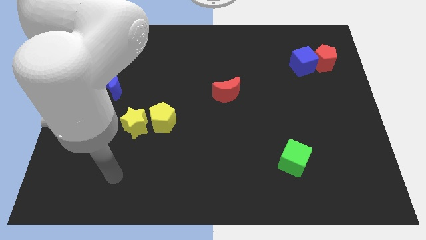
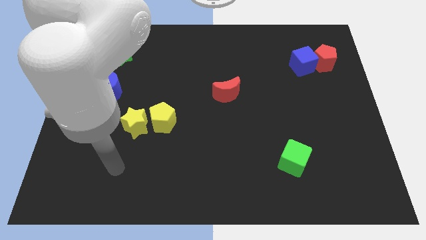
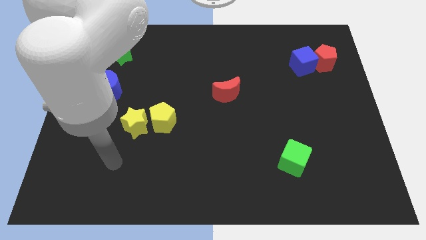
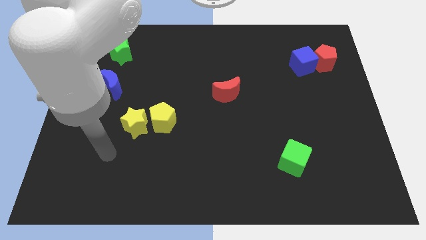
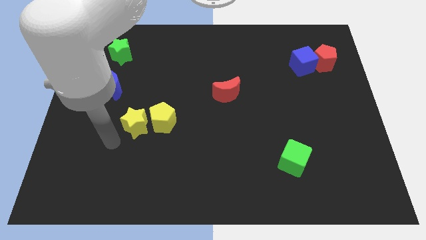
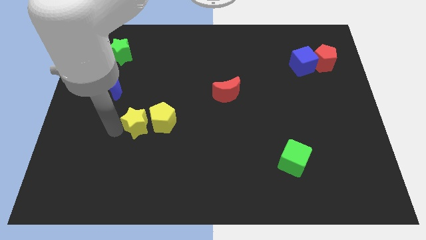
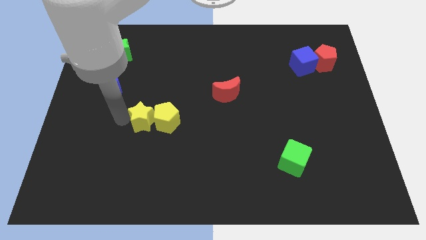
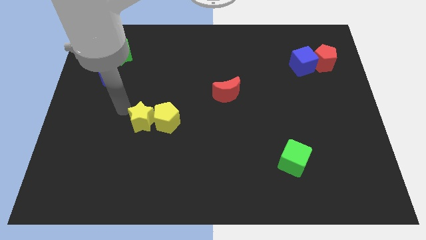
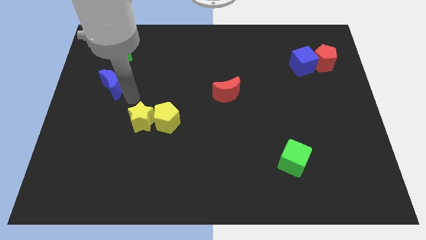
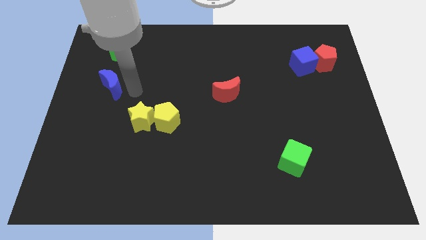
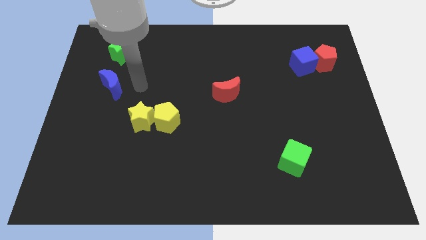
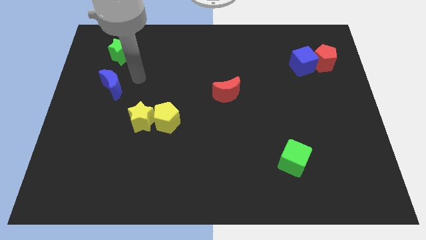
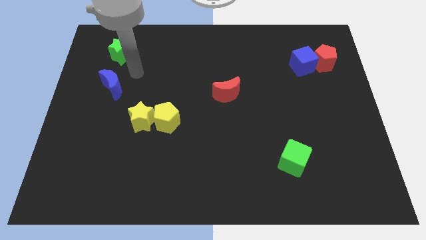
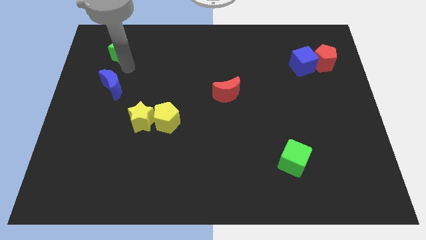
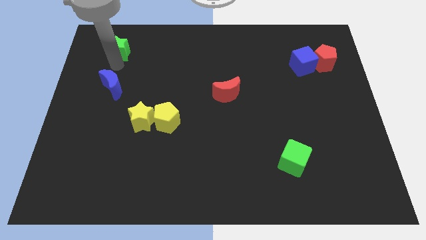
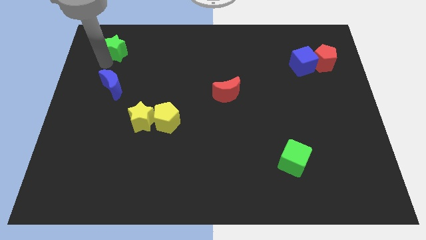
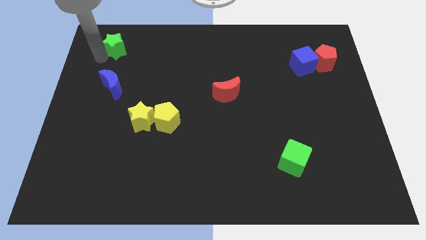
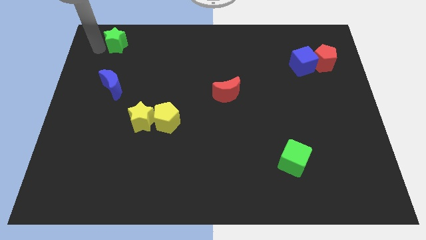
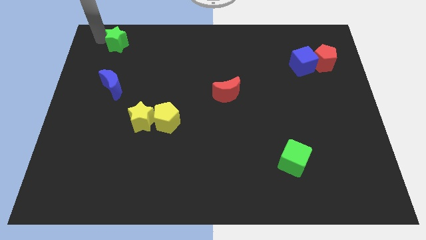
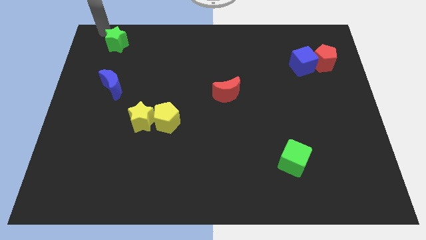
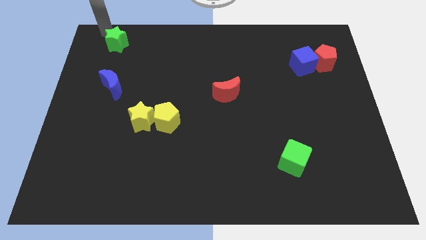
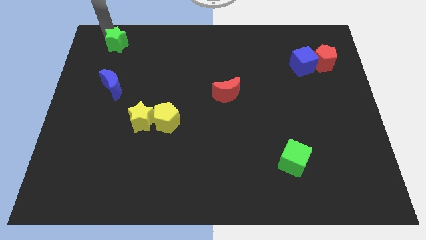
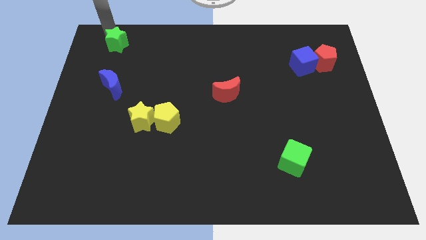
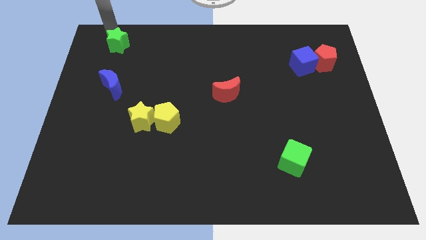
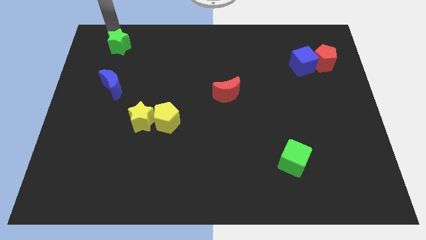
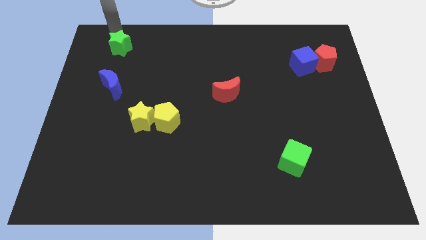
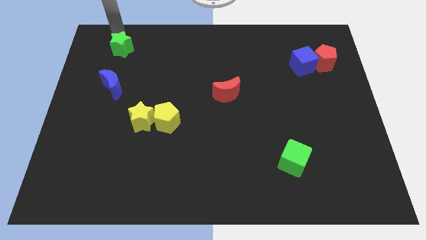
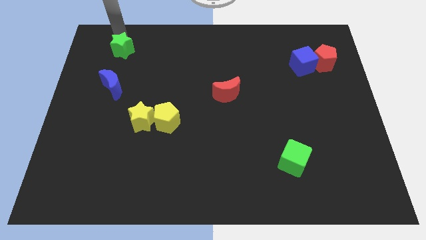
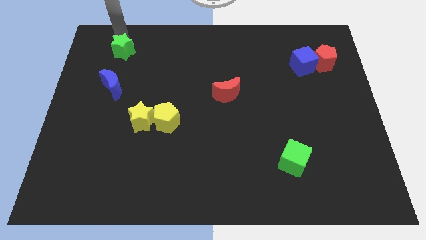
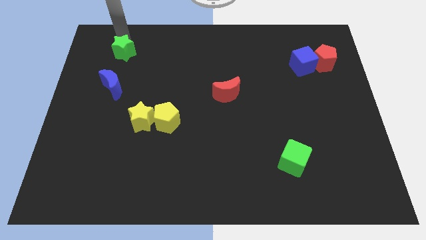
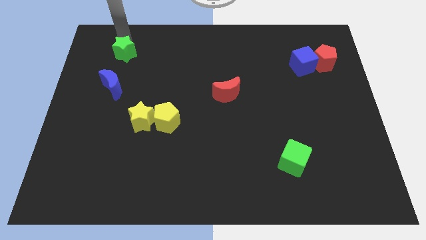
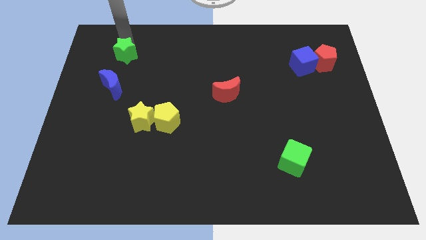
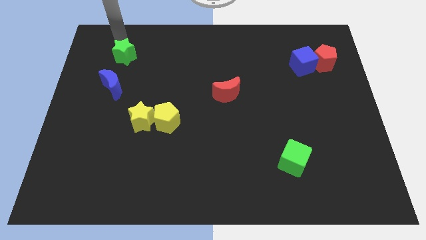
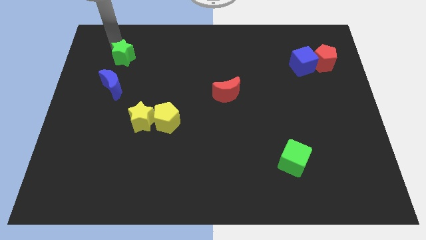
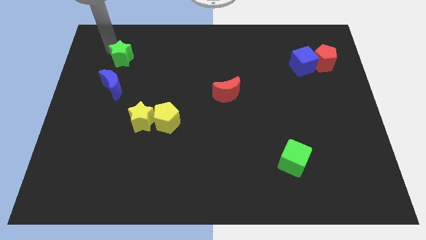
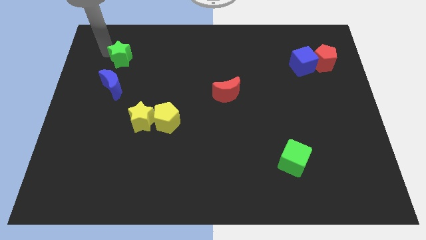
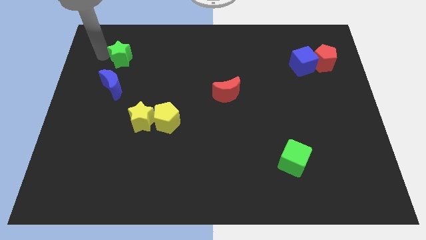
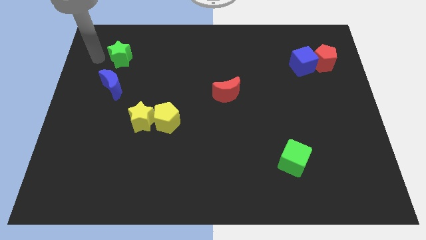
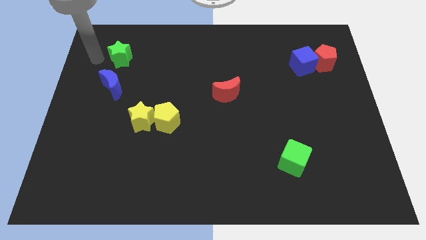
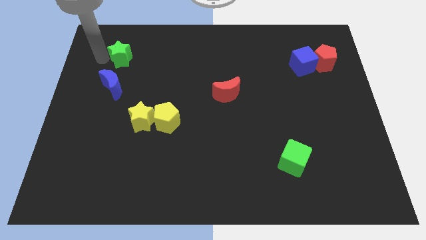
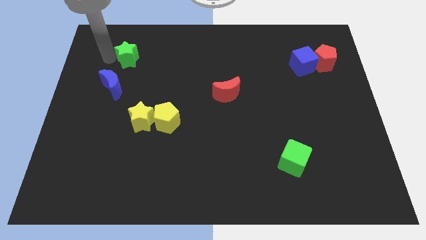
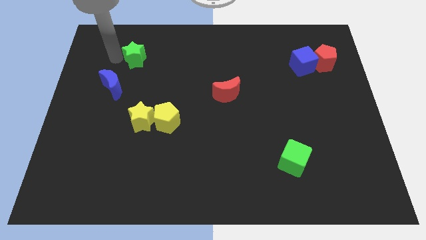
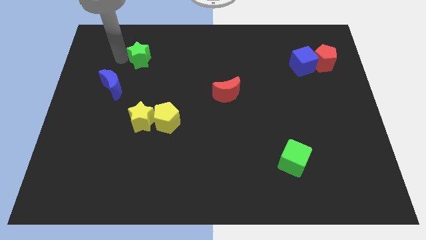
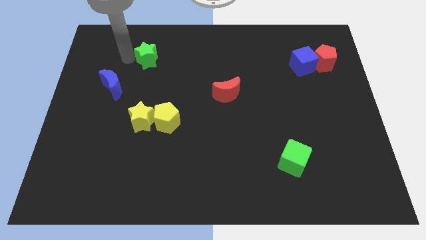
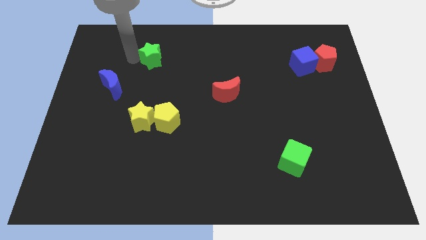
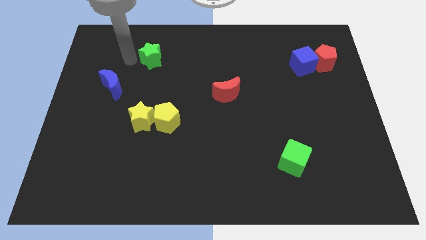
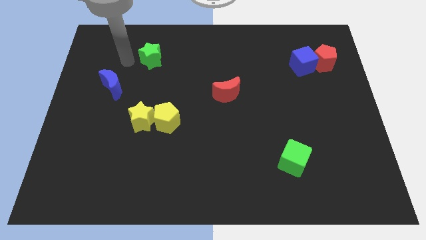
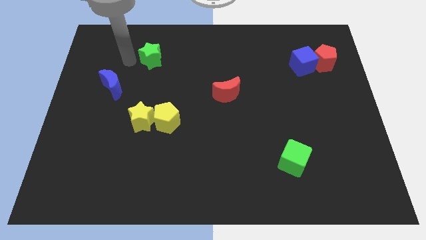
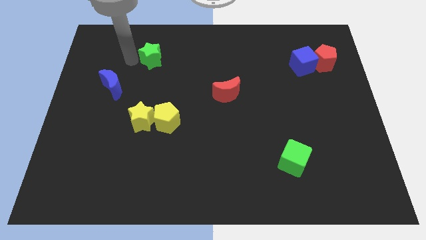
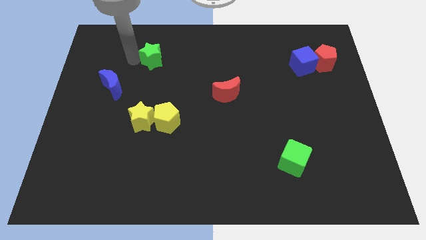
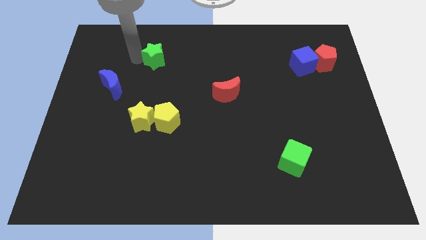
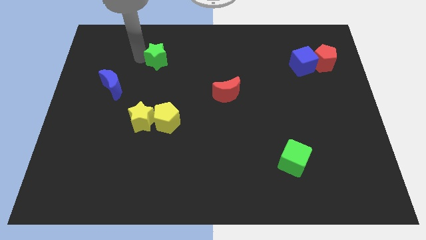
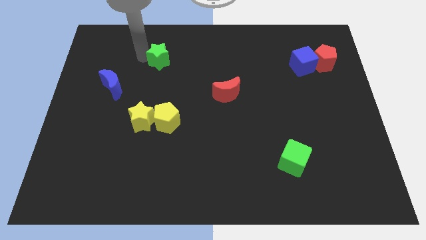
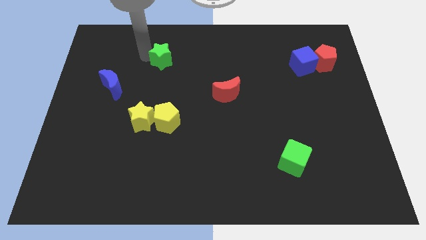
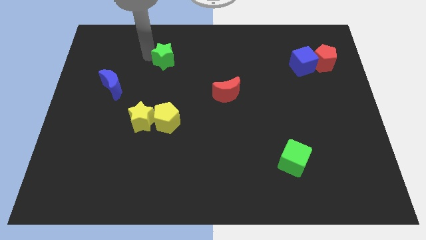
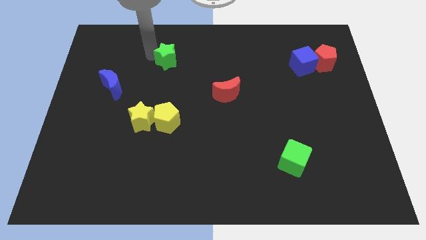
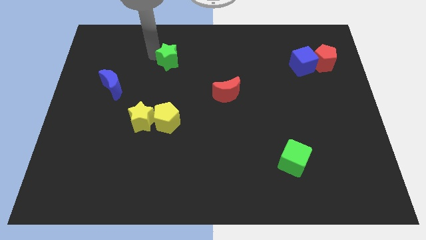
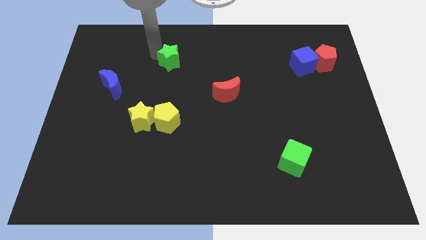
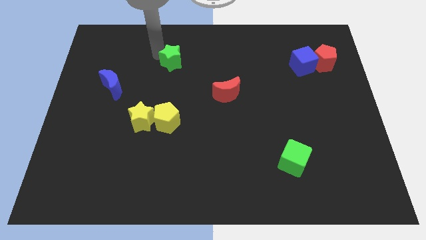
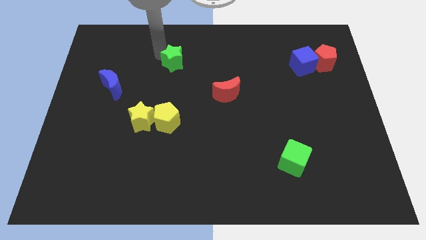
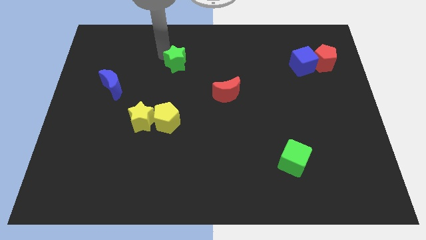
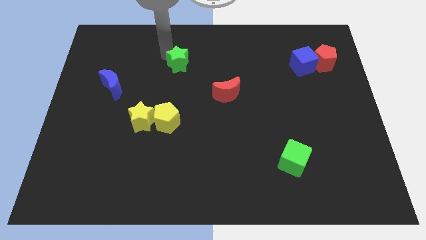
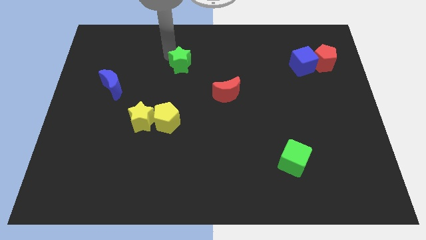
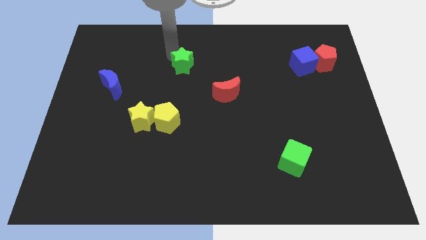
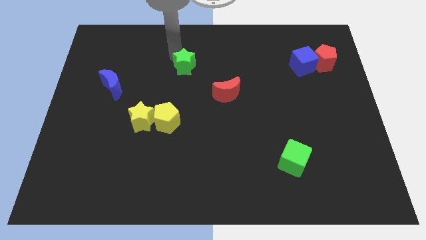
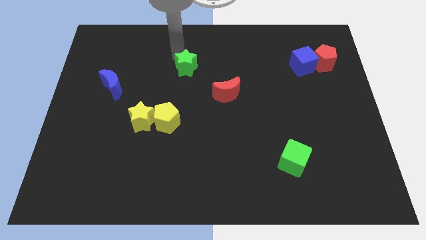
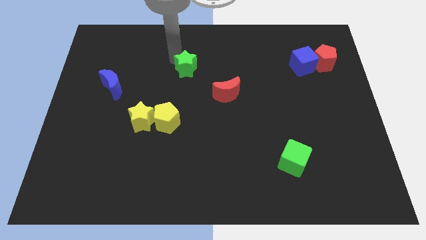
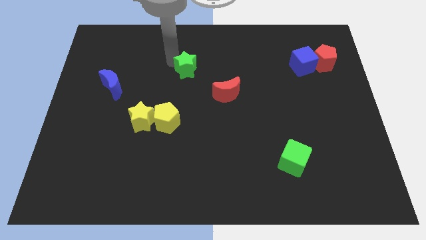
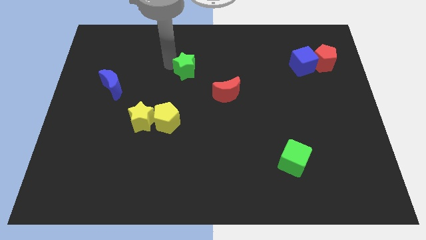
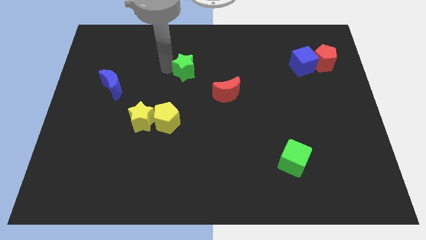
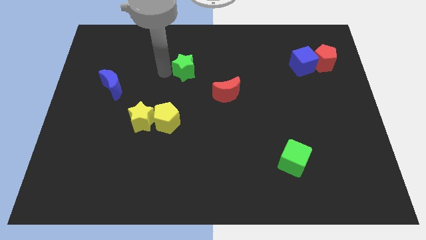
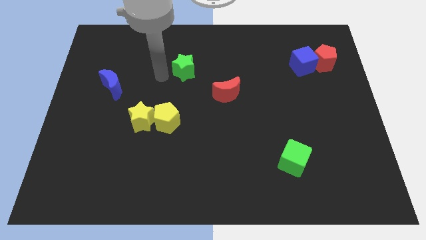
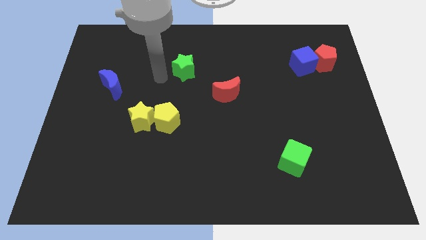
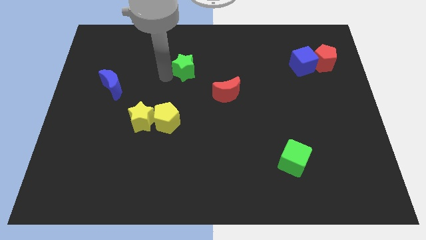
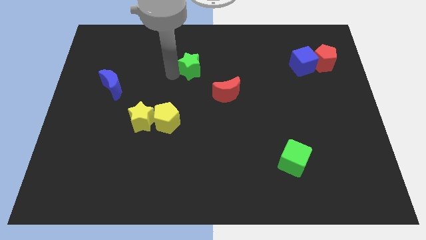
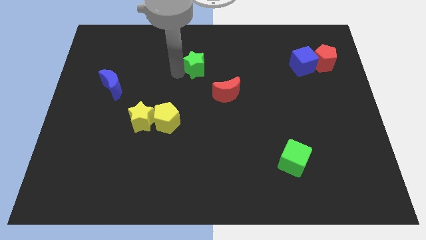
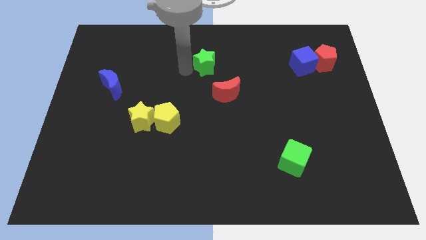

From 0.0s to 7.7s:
push the green star right

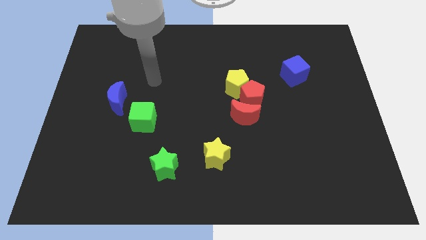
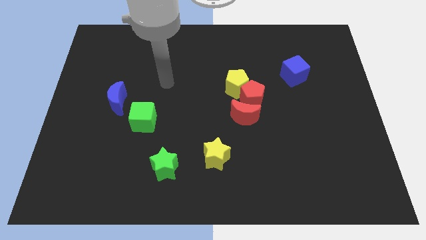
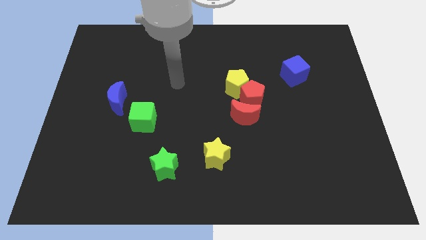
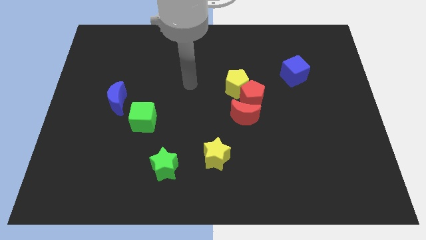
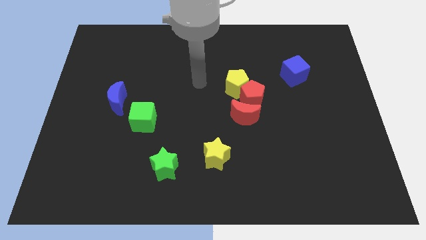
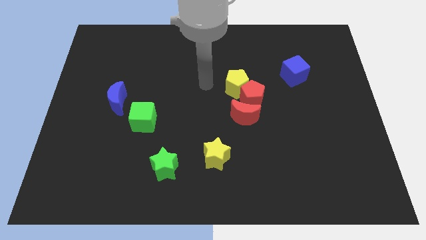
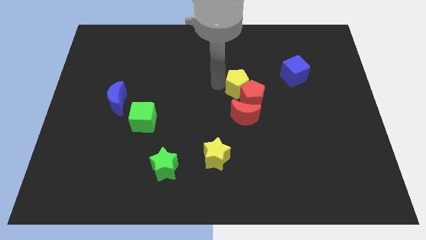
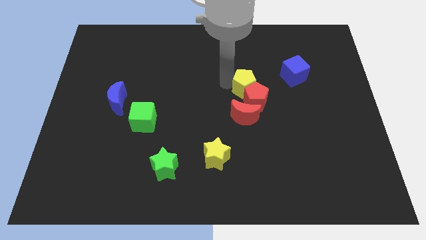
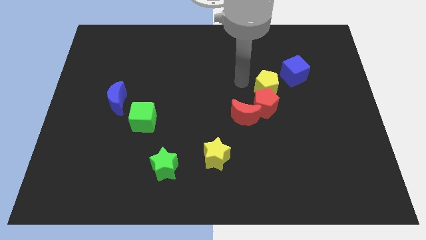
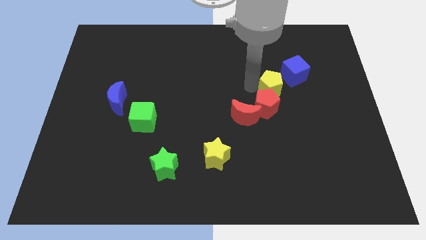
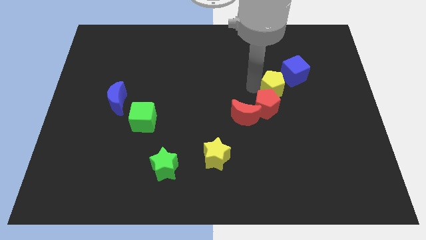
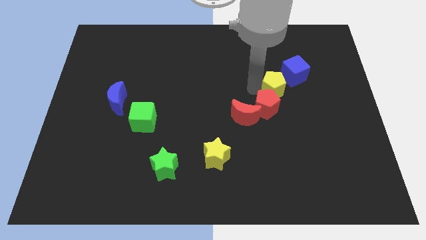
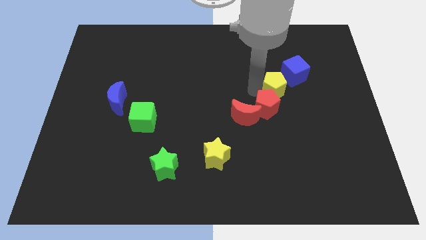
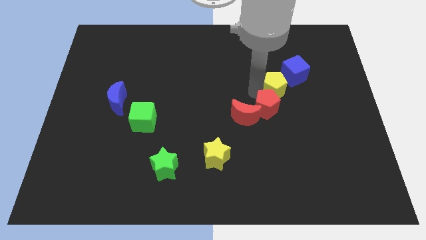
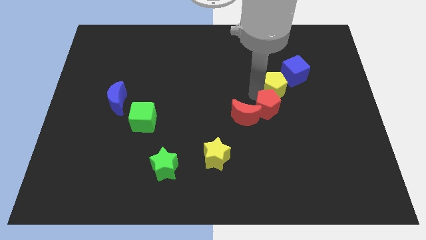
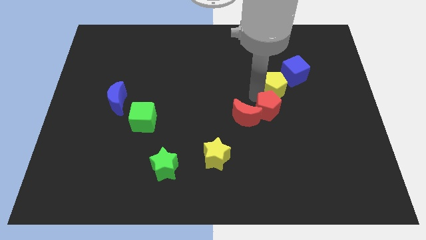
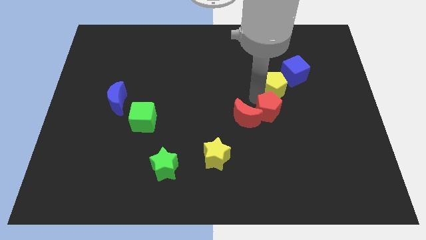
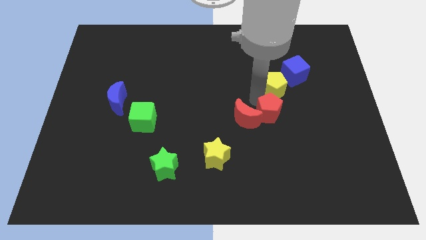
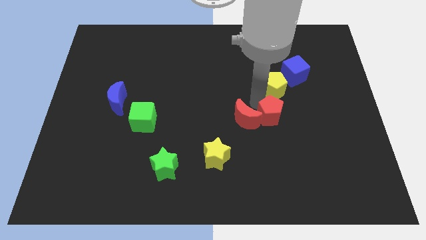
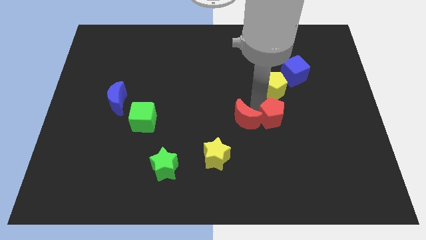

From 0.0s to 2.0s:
push the red pentagon down and right diagonally a little
